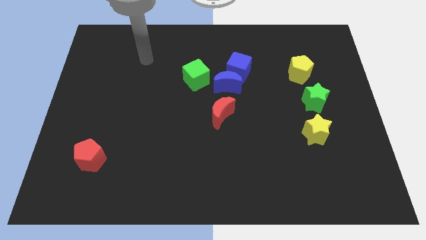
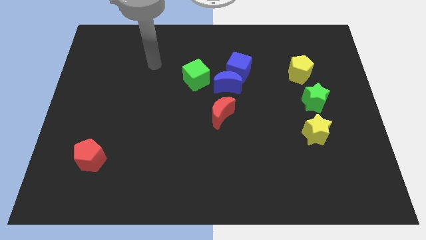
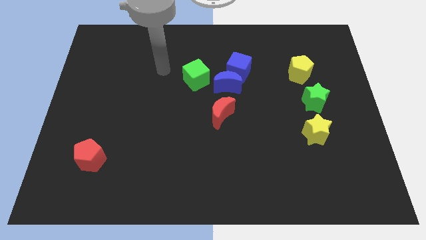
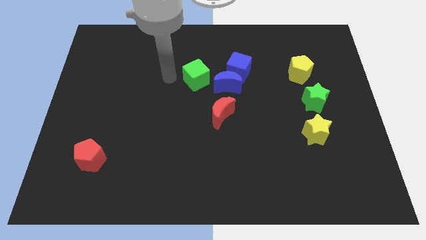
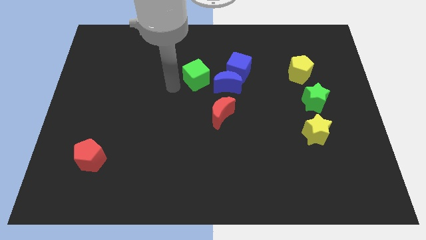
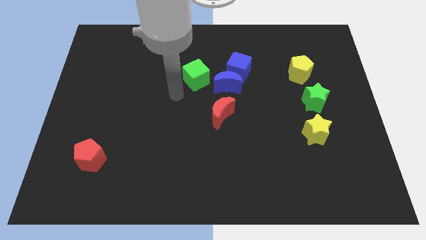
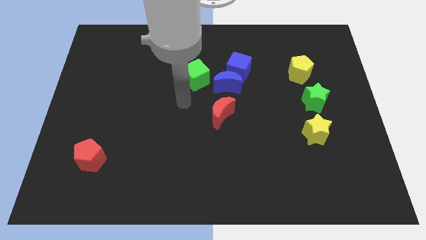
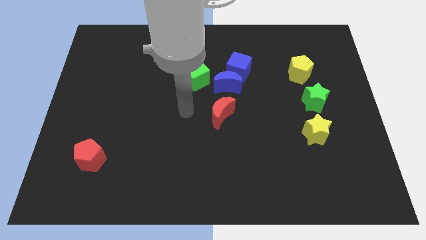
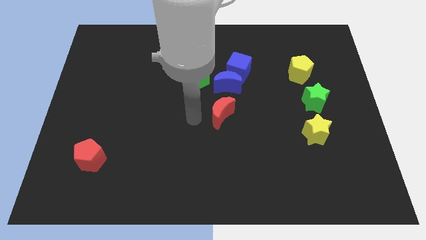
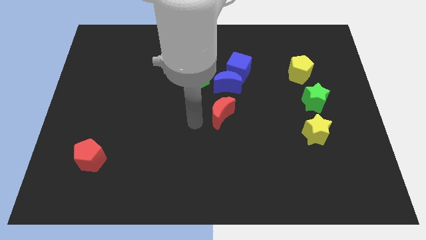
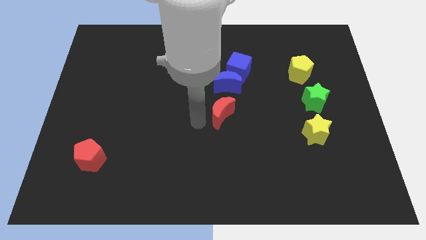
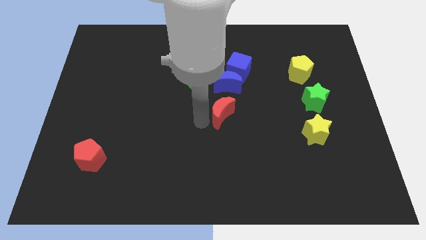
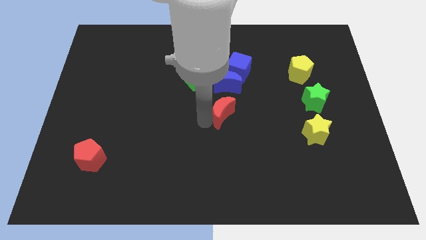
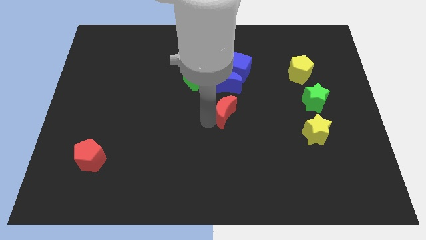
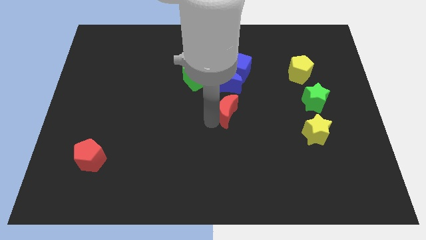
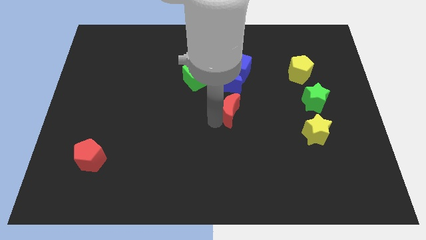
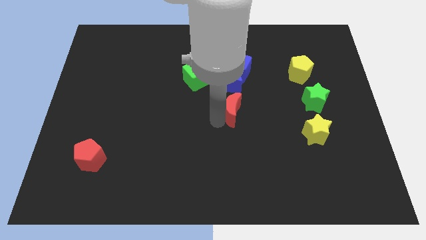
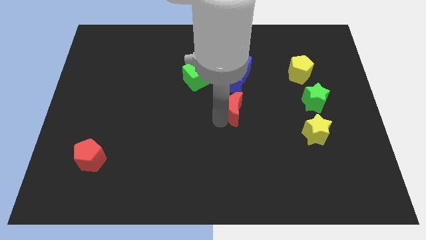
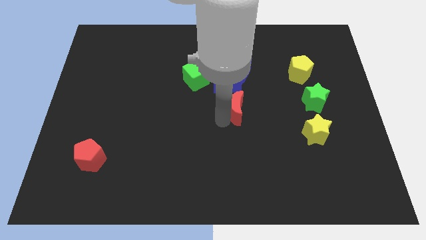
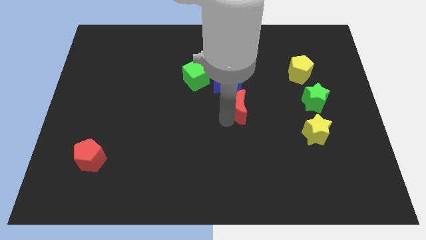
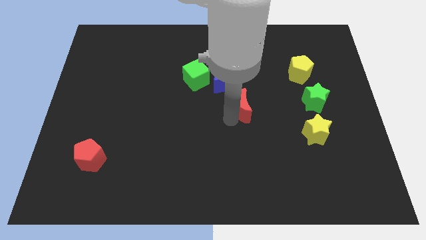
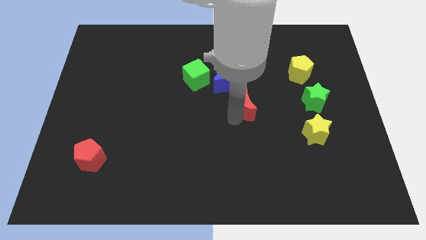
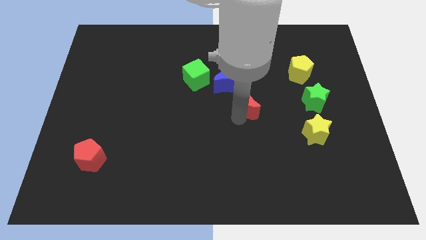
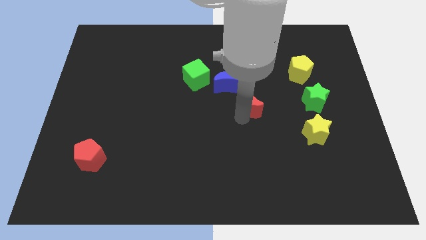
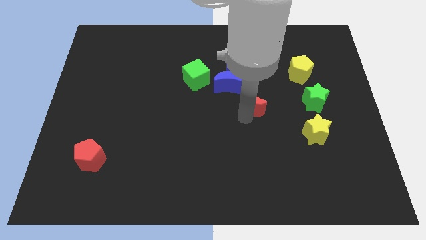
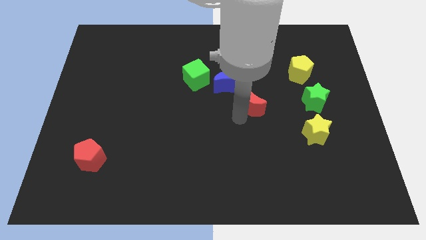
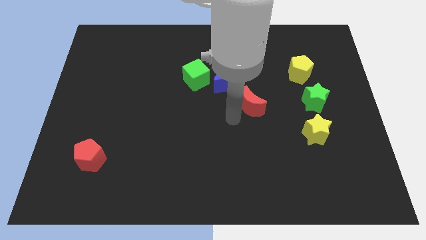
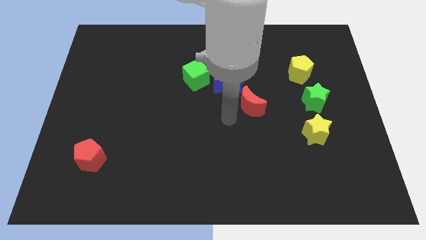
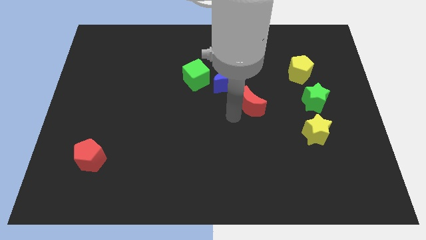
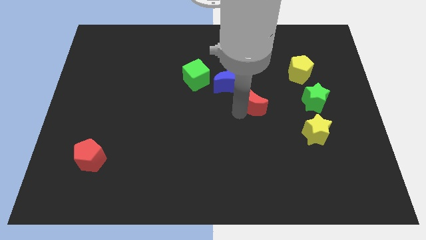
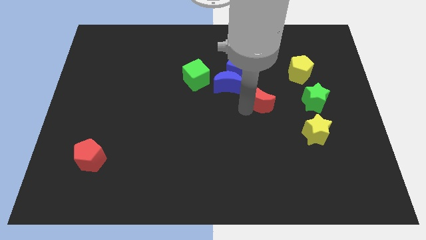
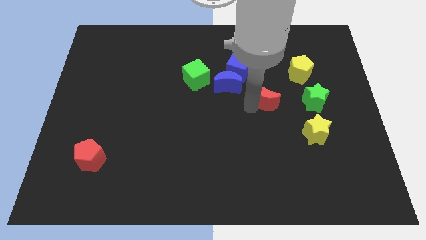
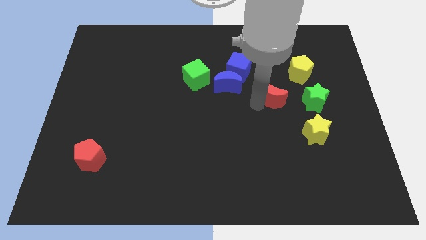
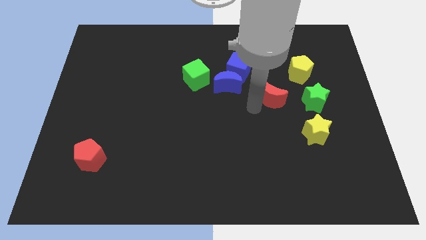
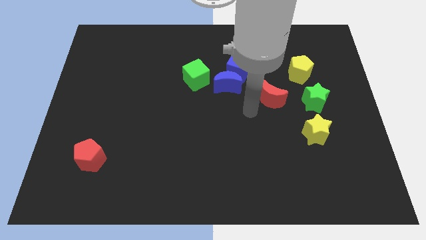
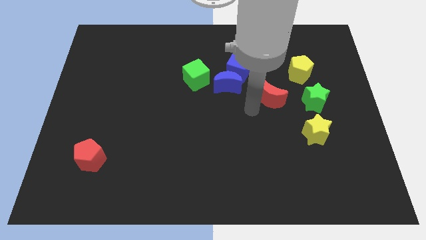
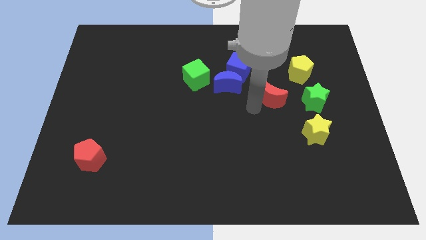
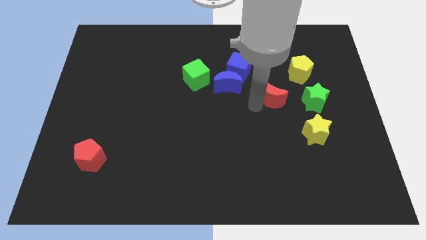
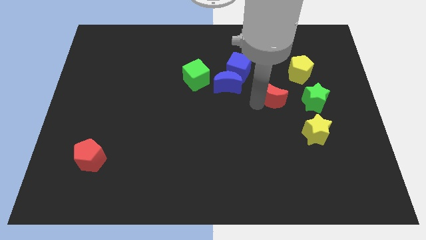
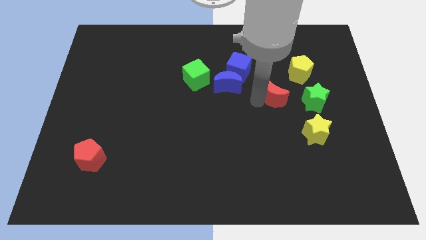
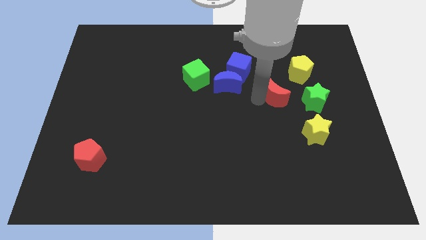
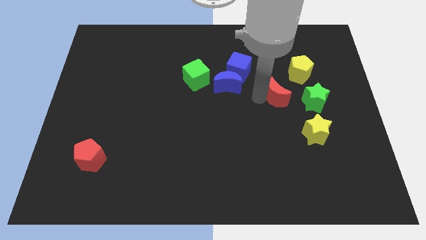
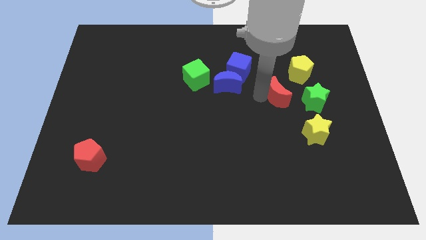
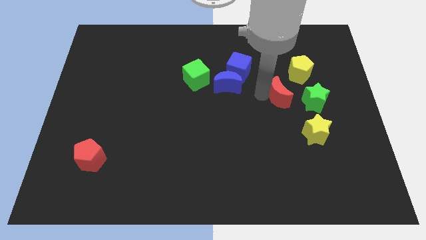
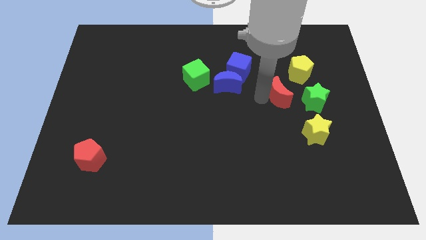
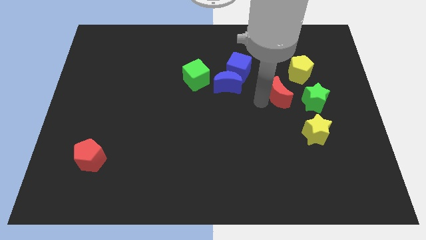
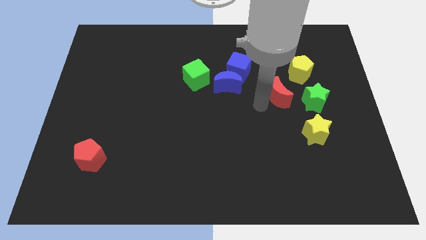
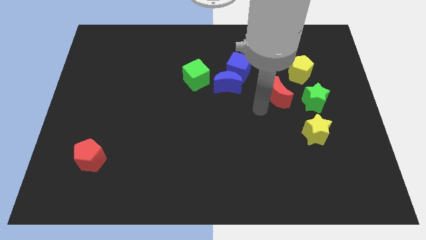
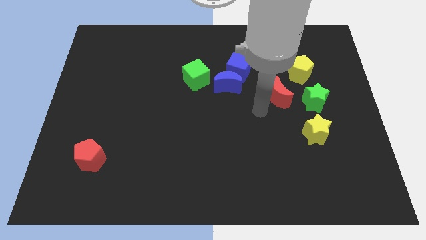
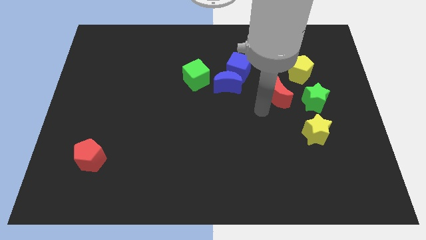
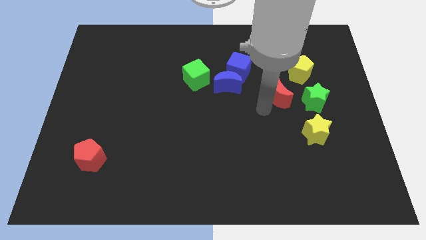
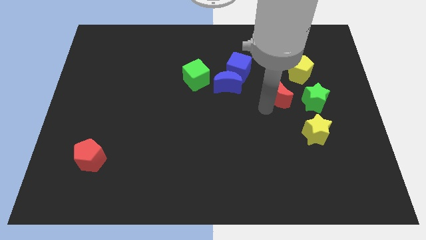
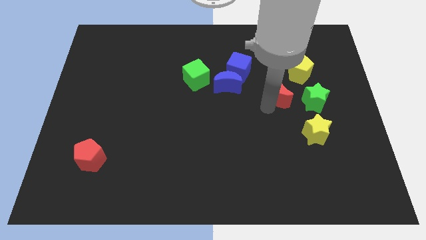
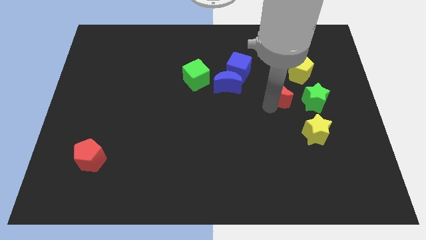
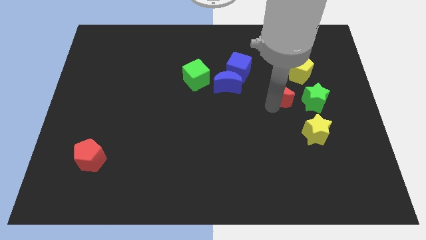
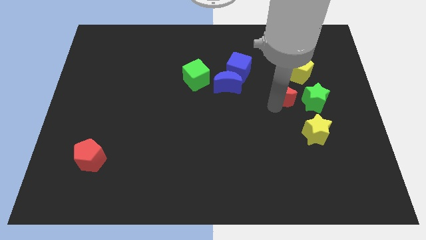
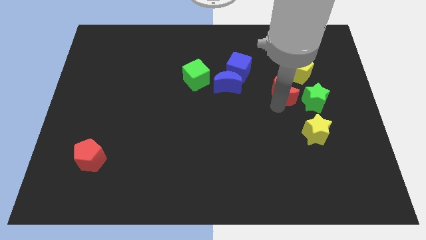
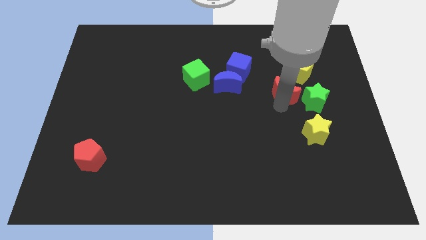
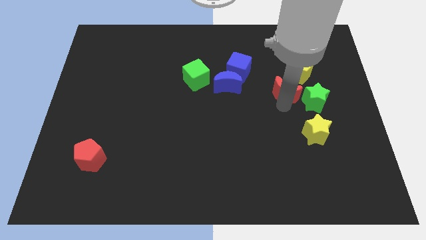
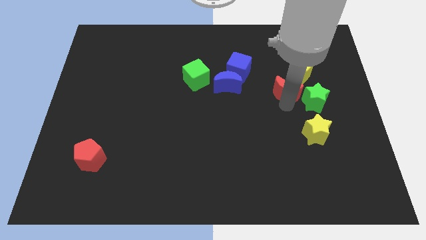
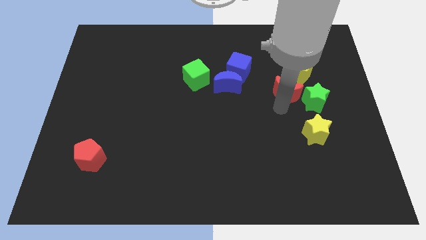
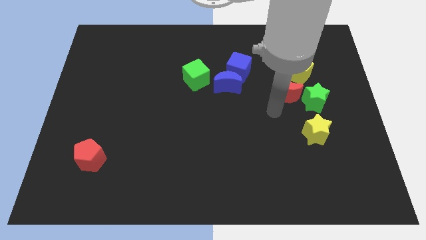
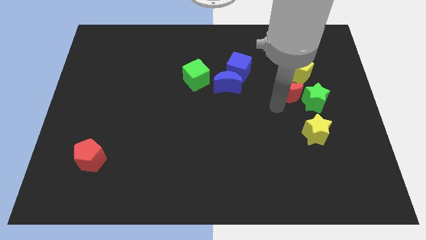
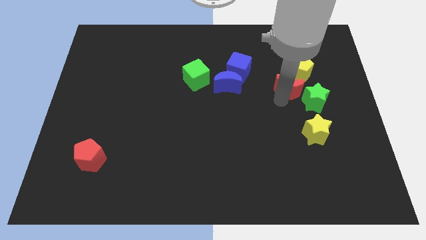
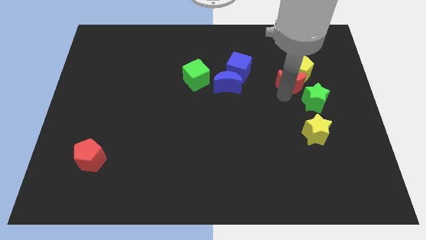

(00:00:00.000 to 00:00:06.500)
push the red moon to the yellow pentagon
